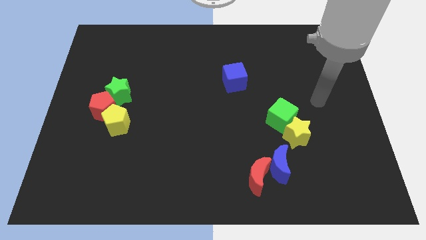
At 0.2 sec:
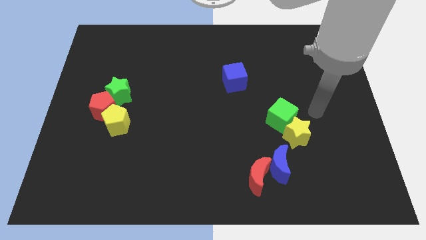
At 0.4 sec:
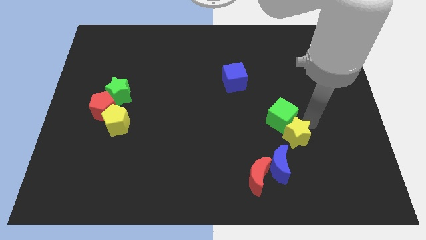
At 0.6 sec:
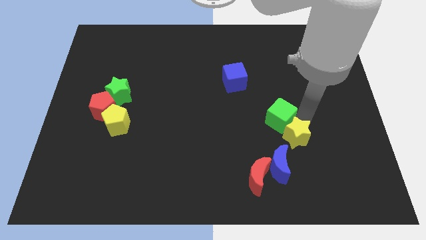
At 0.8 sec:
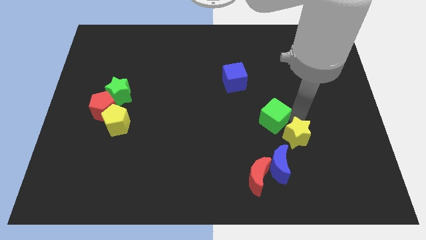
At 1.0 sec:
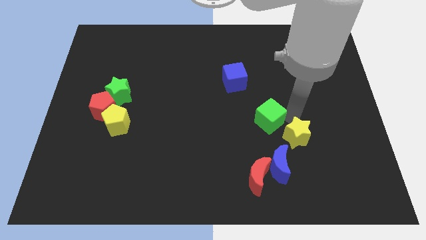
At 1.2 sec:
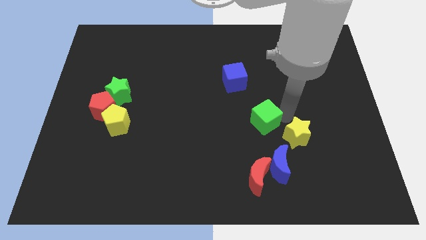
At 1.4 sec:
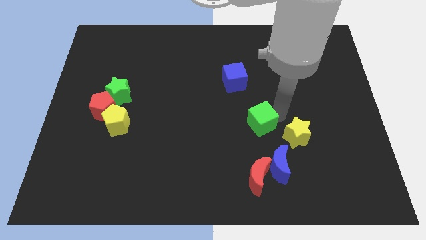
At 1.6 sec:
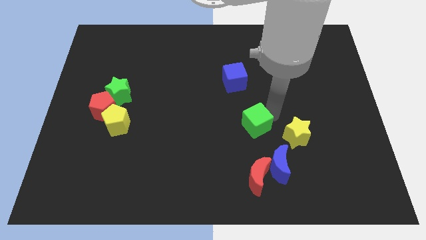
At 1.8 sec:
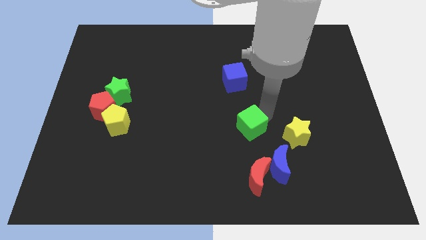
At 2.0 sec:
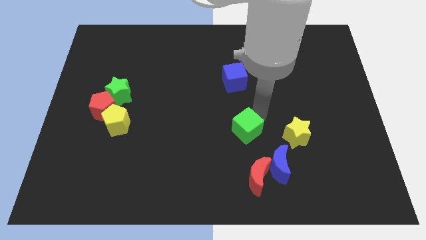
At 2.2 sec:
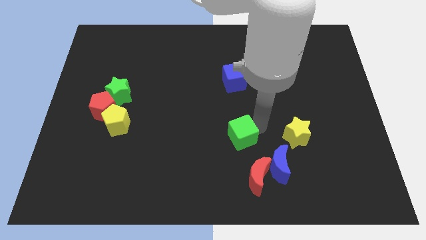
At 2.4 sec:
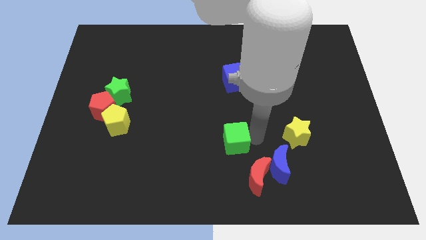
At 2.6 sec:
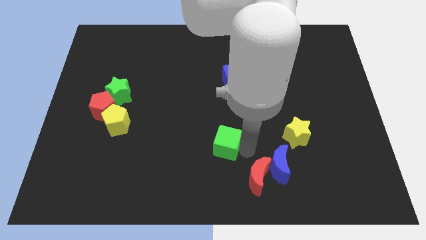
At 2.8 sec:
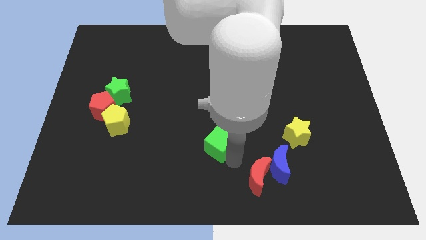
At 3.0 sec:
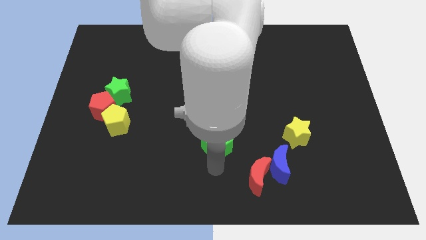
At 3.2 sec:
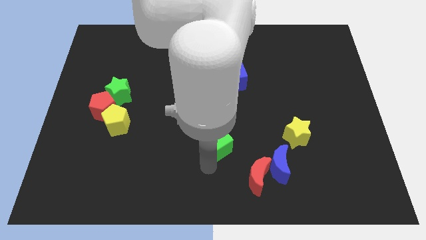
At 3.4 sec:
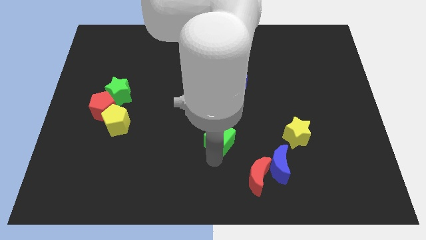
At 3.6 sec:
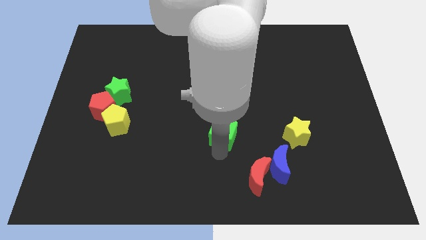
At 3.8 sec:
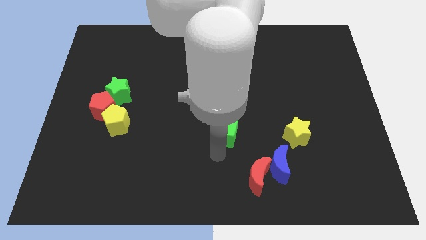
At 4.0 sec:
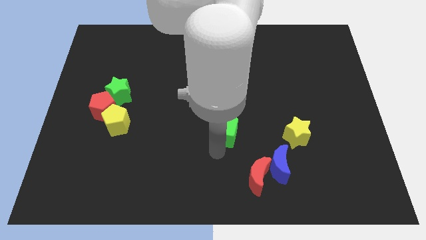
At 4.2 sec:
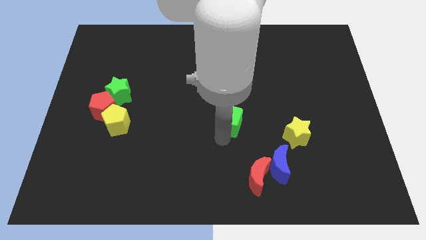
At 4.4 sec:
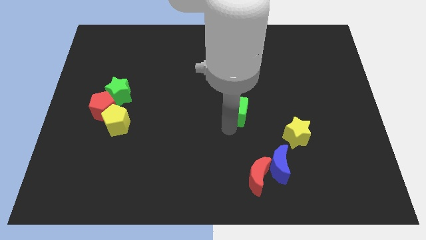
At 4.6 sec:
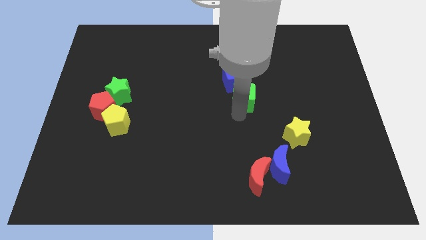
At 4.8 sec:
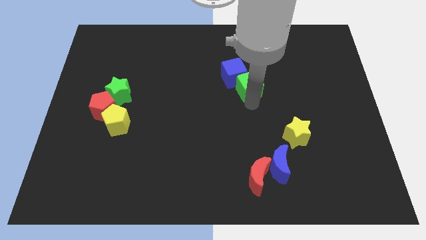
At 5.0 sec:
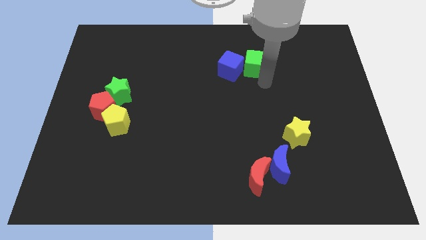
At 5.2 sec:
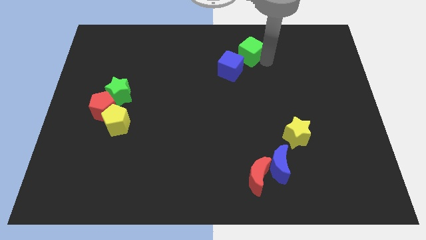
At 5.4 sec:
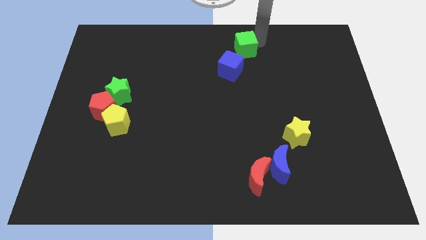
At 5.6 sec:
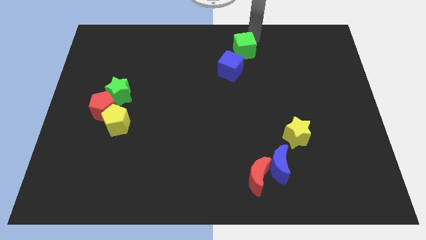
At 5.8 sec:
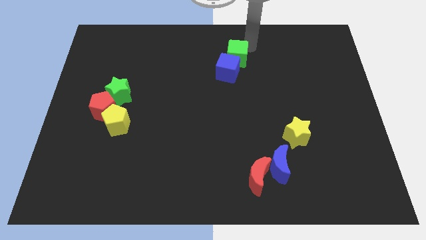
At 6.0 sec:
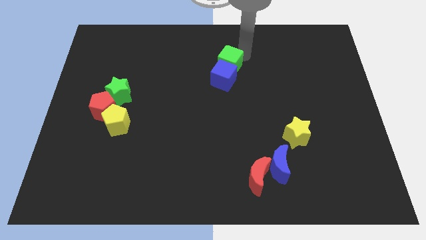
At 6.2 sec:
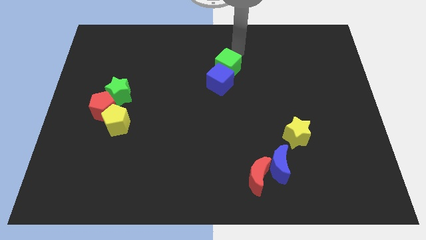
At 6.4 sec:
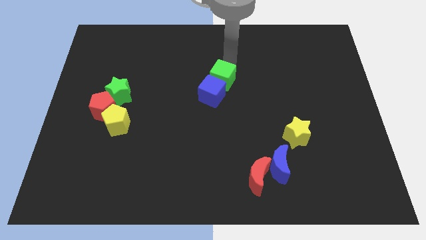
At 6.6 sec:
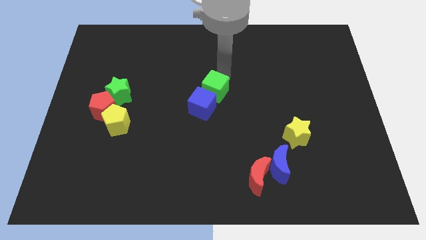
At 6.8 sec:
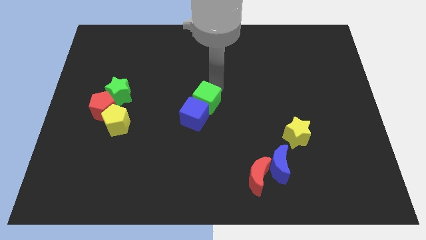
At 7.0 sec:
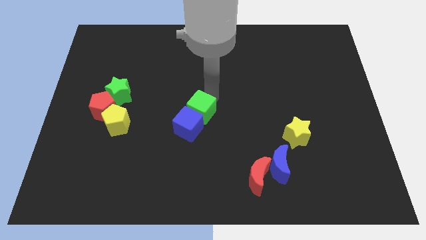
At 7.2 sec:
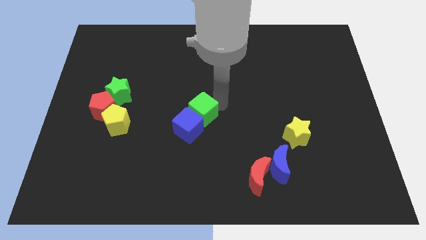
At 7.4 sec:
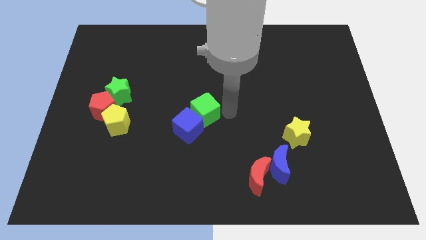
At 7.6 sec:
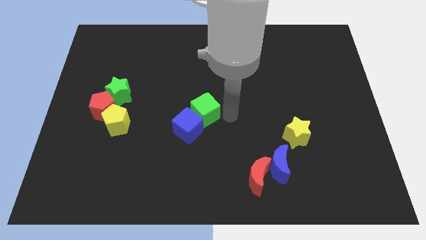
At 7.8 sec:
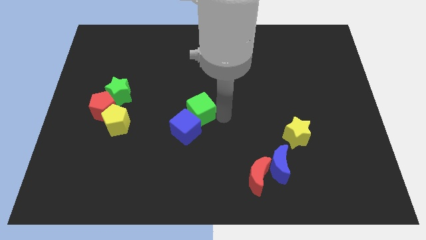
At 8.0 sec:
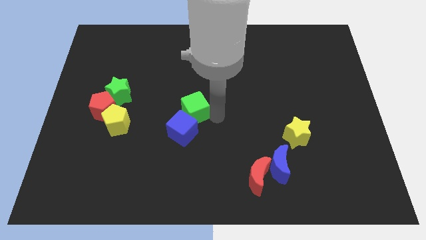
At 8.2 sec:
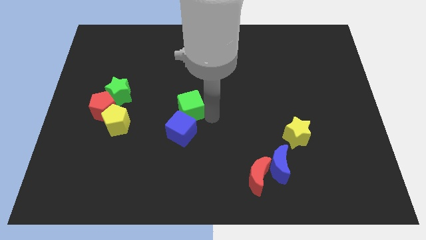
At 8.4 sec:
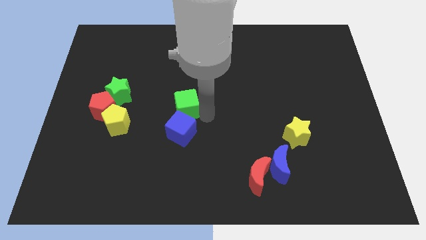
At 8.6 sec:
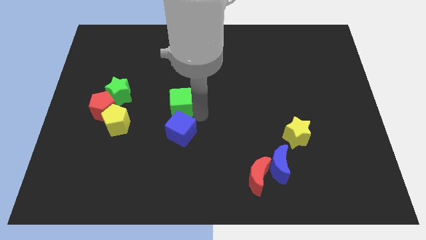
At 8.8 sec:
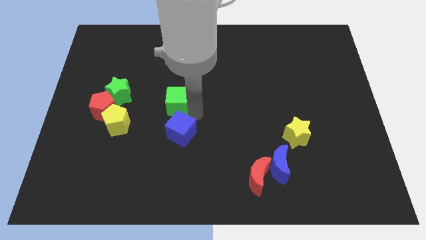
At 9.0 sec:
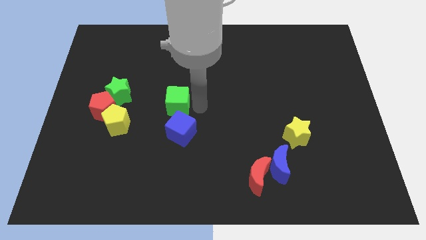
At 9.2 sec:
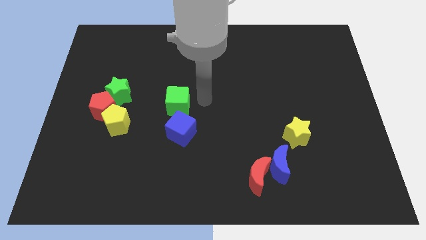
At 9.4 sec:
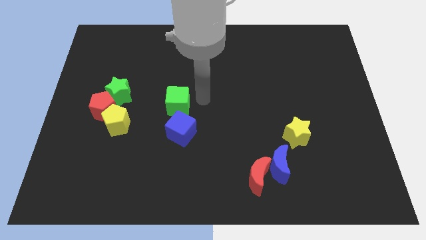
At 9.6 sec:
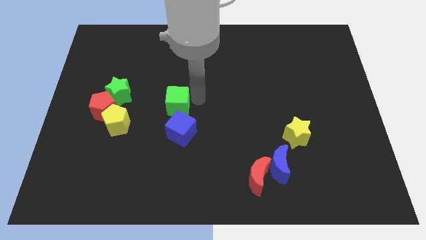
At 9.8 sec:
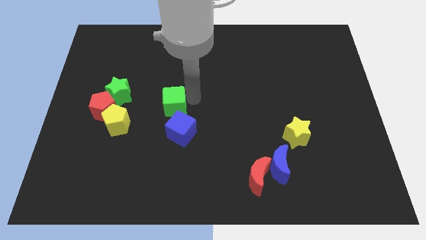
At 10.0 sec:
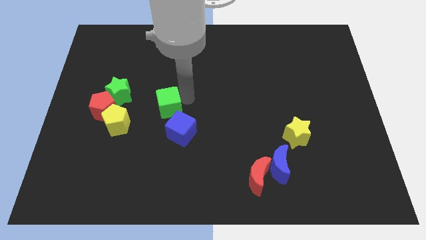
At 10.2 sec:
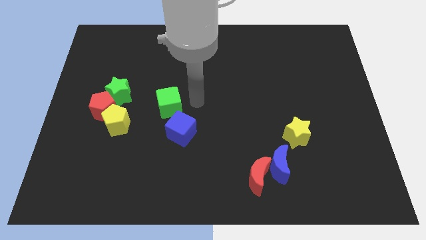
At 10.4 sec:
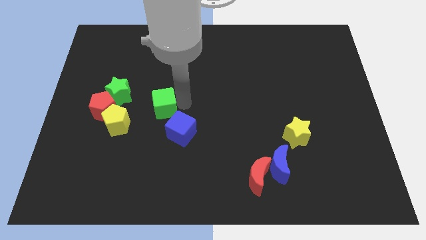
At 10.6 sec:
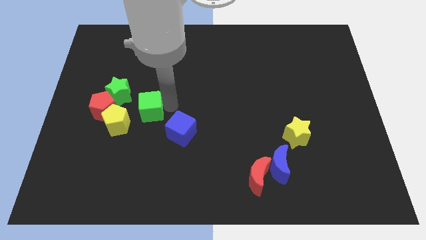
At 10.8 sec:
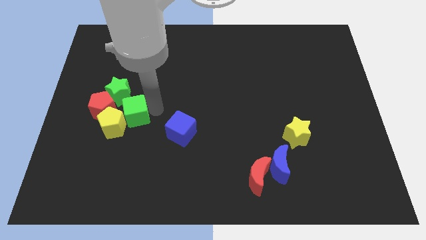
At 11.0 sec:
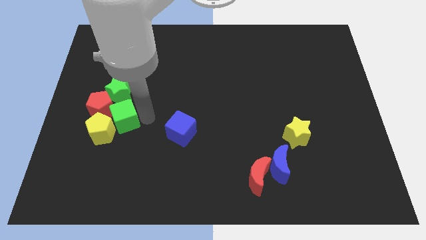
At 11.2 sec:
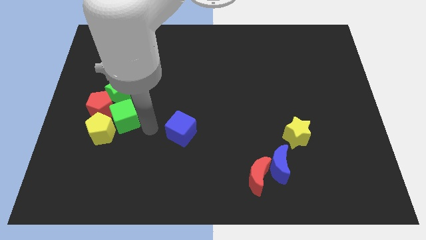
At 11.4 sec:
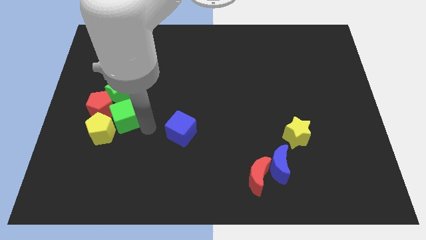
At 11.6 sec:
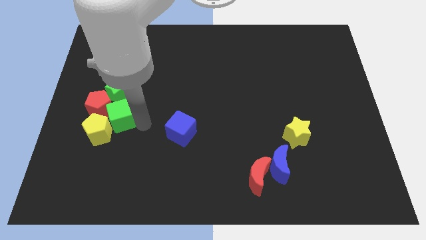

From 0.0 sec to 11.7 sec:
put the green cube close to the red pentagon

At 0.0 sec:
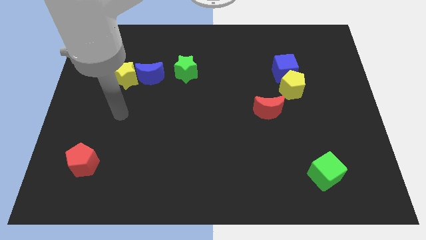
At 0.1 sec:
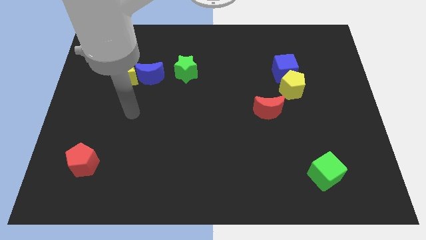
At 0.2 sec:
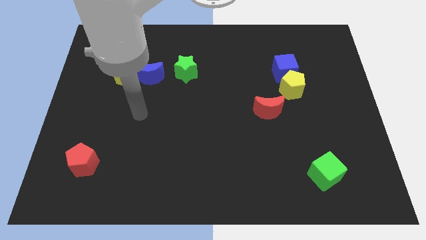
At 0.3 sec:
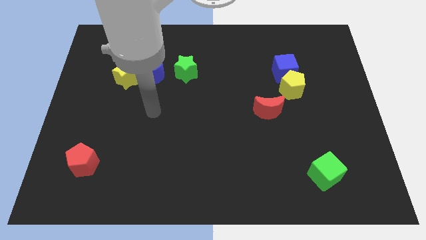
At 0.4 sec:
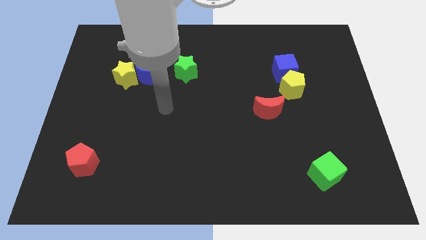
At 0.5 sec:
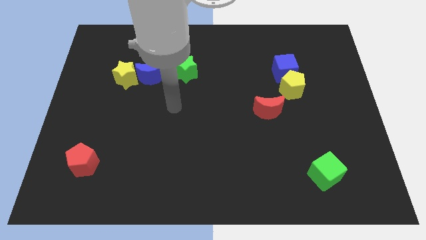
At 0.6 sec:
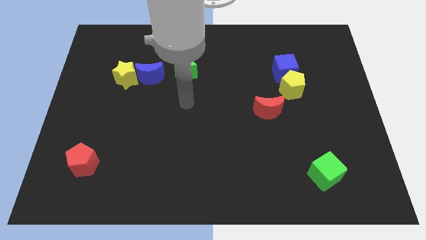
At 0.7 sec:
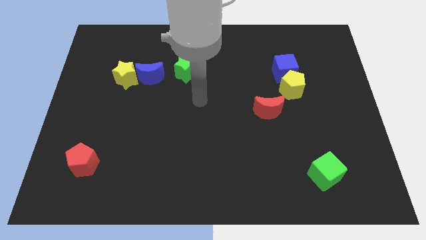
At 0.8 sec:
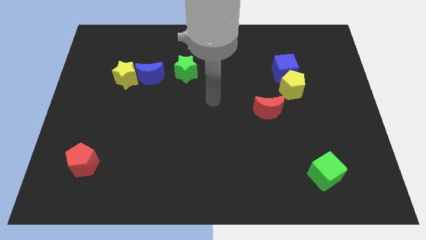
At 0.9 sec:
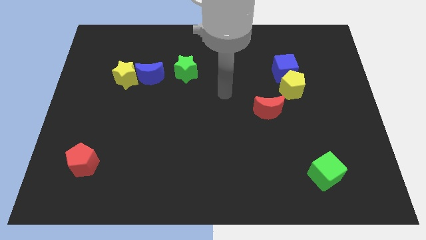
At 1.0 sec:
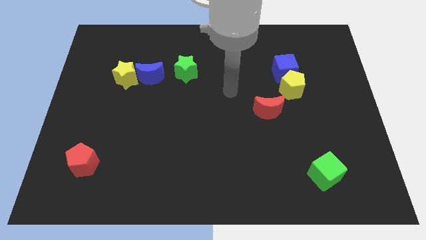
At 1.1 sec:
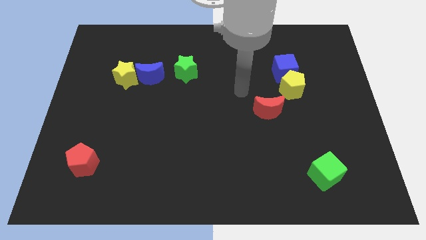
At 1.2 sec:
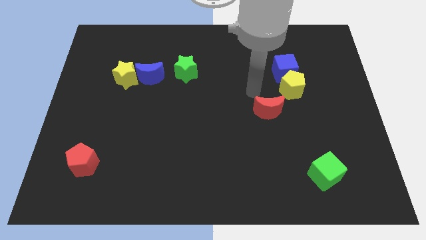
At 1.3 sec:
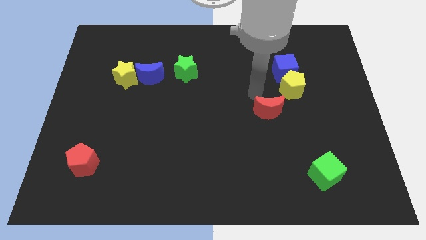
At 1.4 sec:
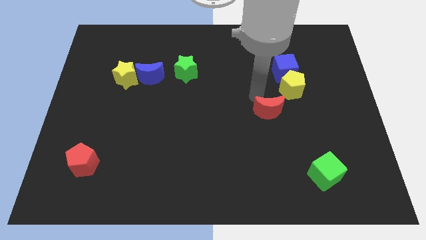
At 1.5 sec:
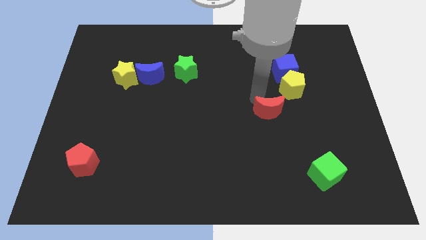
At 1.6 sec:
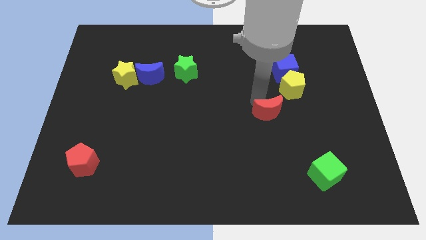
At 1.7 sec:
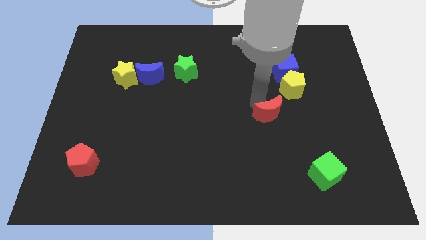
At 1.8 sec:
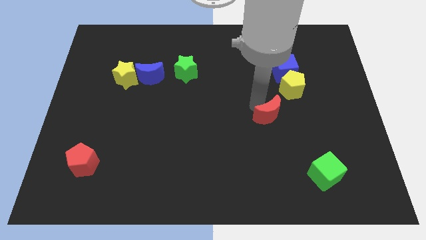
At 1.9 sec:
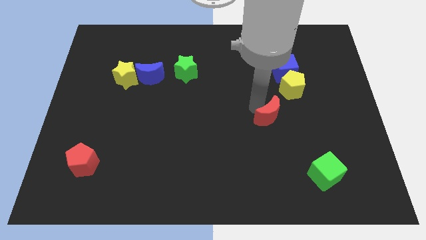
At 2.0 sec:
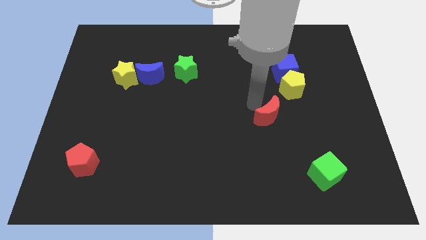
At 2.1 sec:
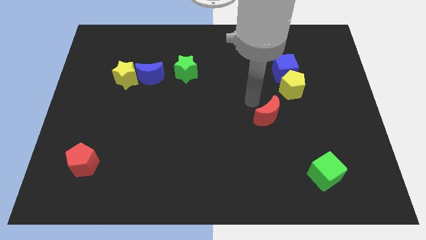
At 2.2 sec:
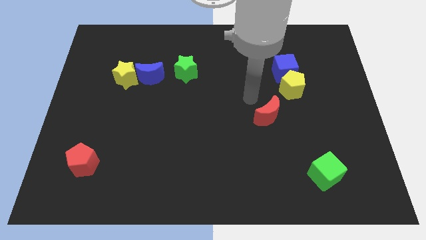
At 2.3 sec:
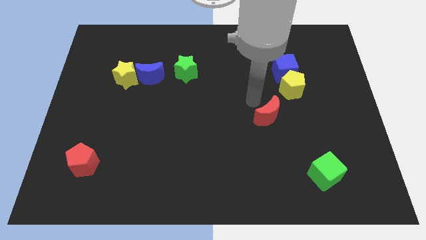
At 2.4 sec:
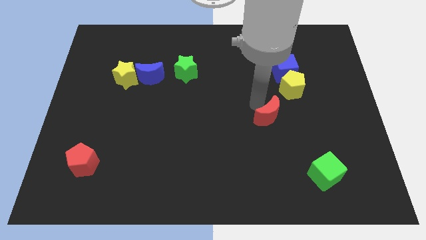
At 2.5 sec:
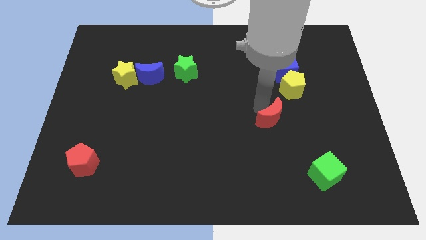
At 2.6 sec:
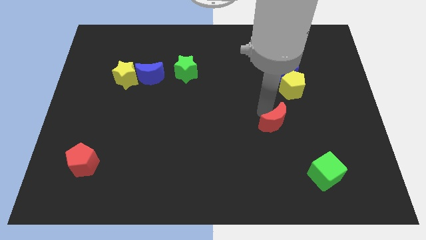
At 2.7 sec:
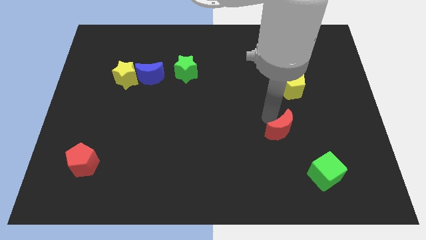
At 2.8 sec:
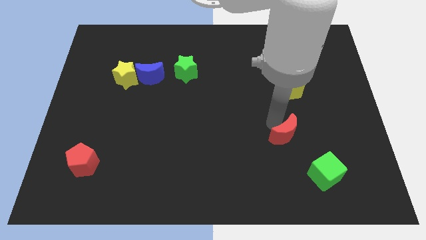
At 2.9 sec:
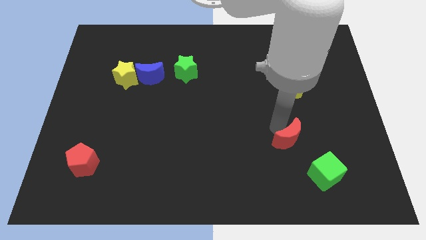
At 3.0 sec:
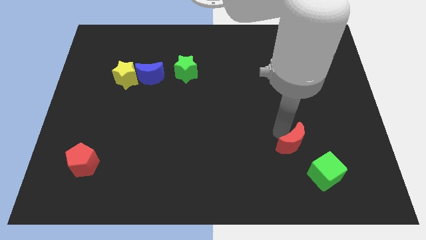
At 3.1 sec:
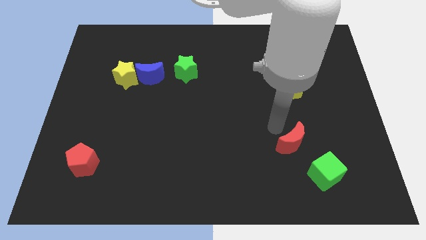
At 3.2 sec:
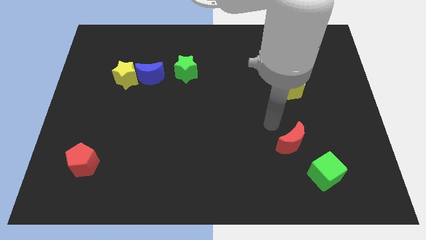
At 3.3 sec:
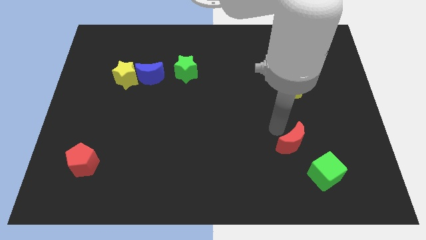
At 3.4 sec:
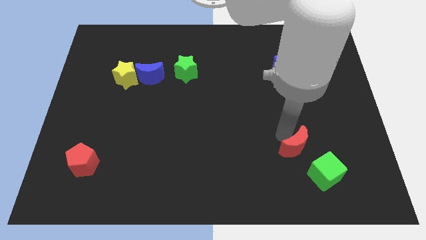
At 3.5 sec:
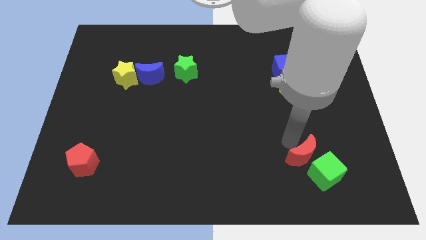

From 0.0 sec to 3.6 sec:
push the red moon next to the green cube
